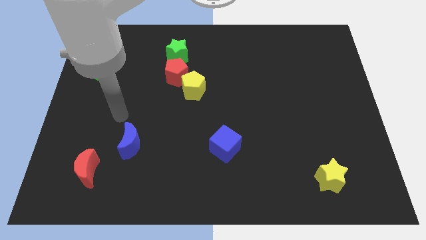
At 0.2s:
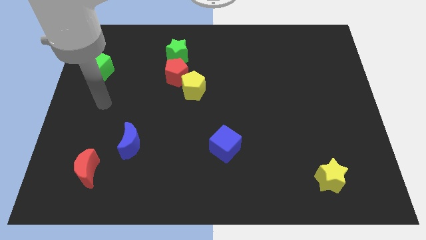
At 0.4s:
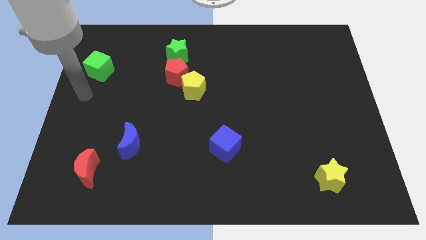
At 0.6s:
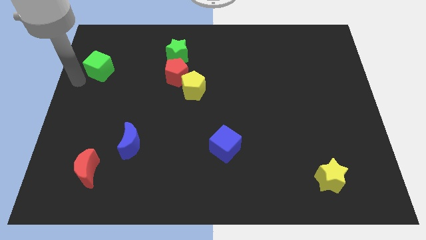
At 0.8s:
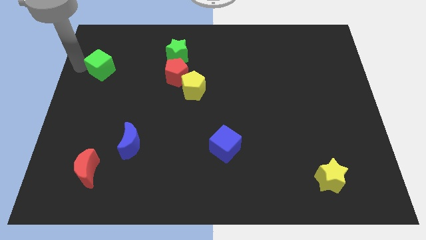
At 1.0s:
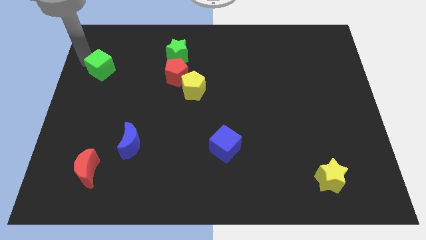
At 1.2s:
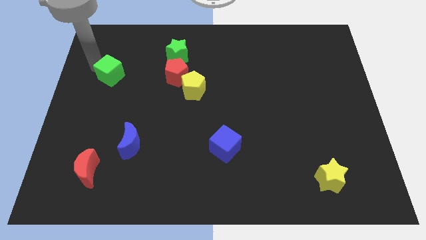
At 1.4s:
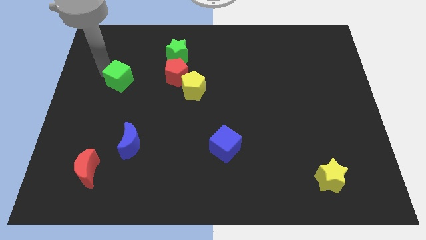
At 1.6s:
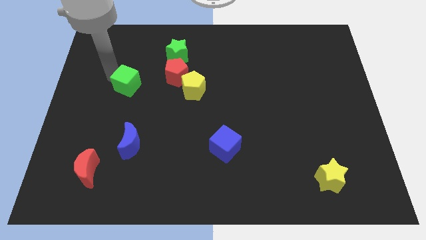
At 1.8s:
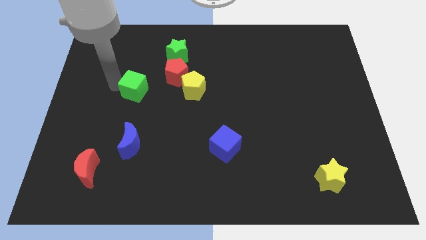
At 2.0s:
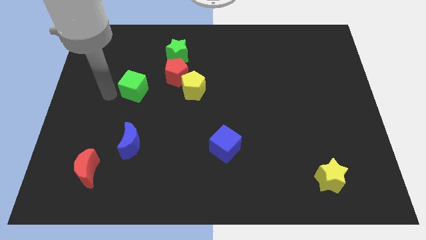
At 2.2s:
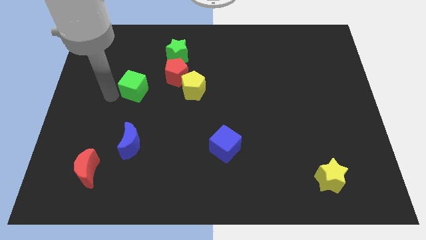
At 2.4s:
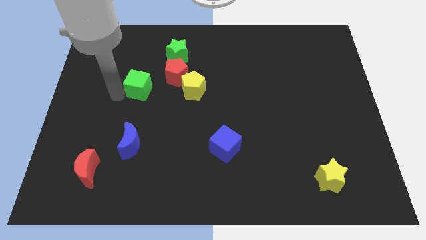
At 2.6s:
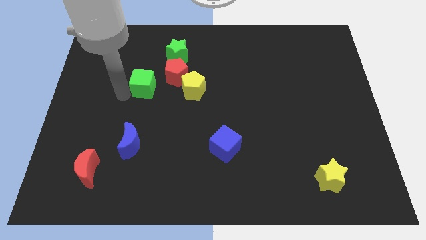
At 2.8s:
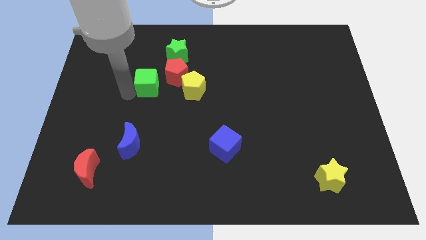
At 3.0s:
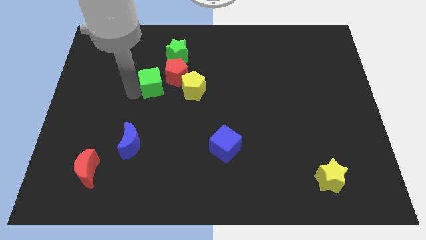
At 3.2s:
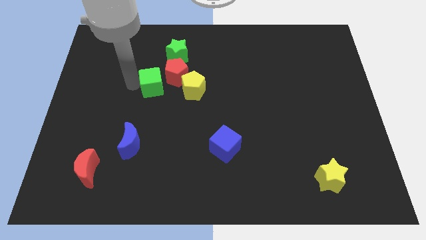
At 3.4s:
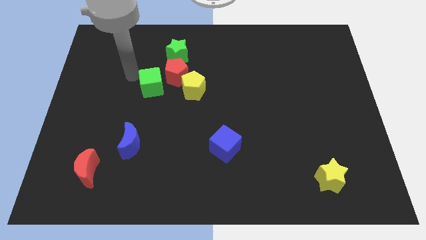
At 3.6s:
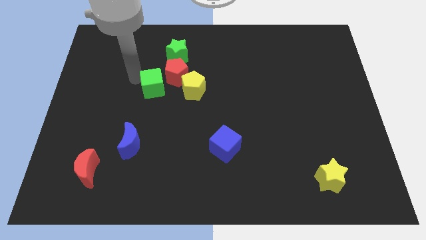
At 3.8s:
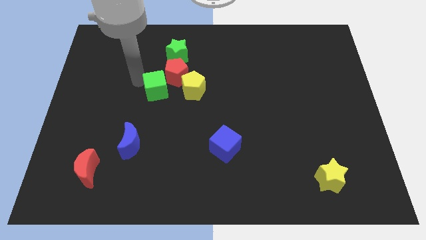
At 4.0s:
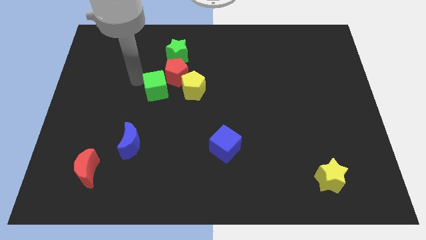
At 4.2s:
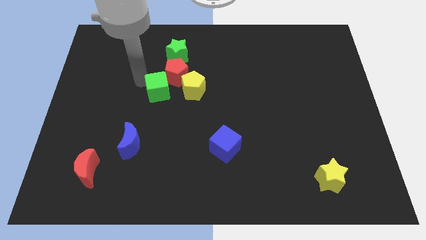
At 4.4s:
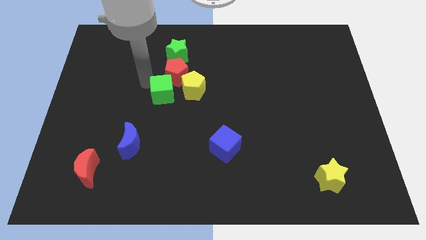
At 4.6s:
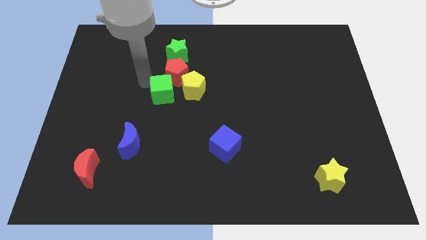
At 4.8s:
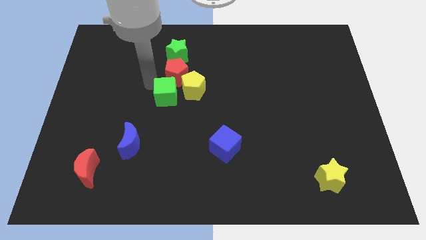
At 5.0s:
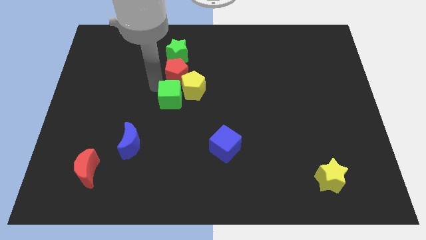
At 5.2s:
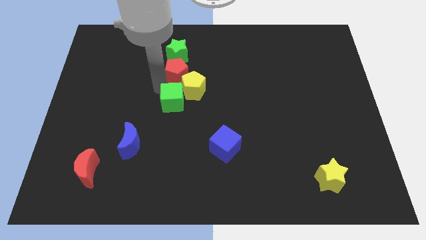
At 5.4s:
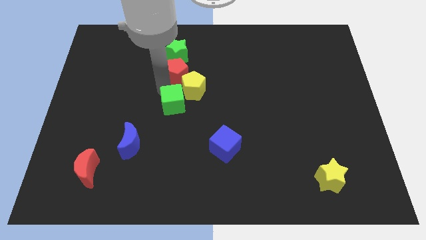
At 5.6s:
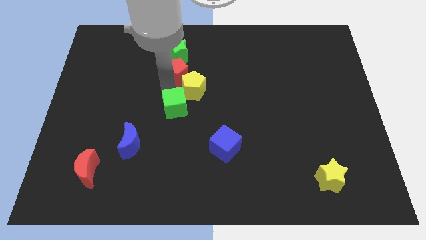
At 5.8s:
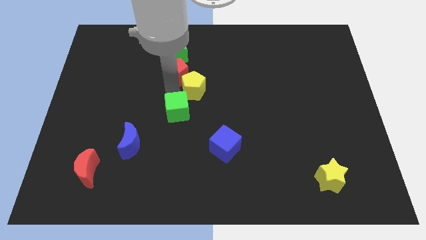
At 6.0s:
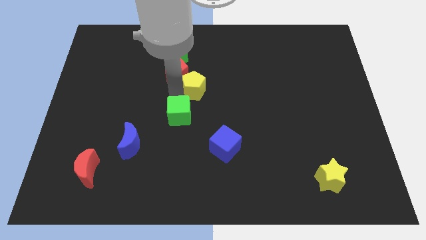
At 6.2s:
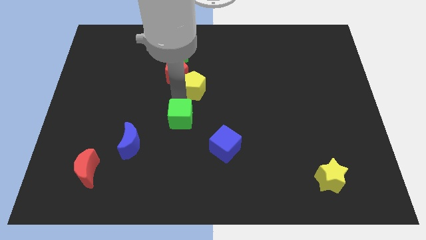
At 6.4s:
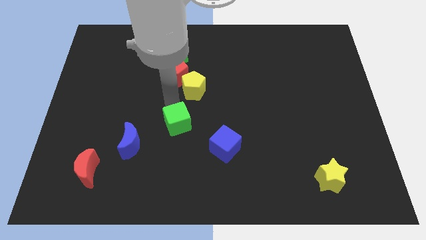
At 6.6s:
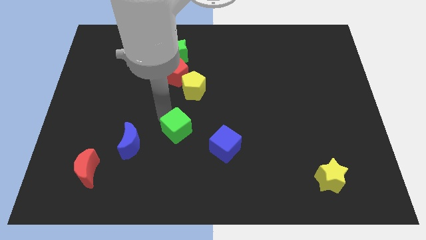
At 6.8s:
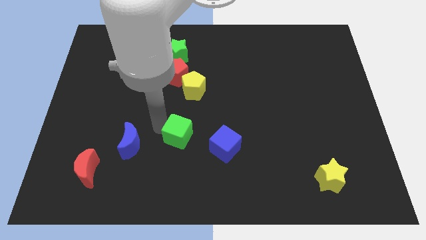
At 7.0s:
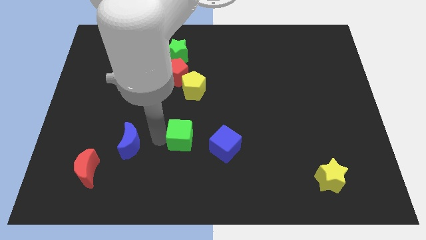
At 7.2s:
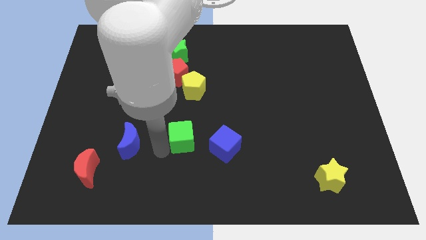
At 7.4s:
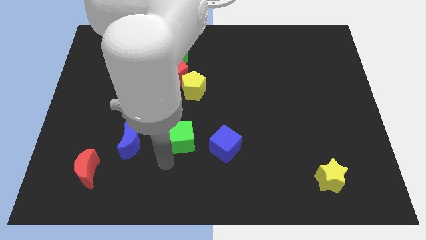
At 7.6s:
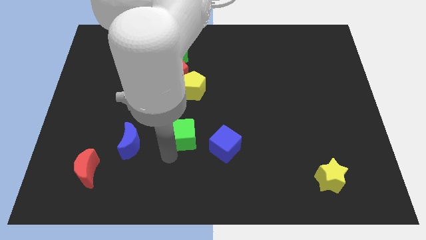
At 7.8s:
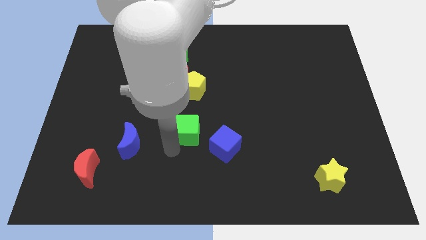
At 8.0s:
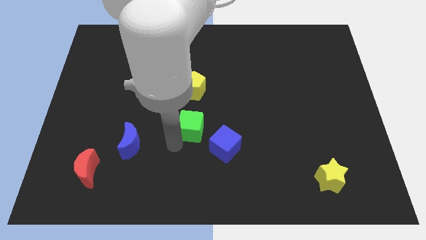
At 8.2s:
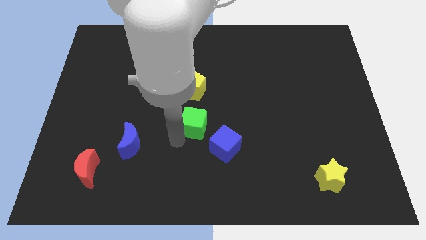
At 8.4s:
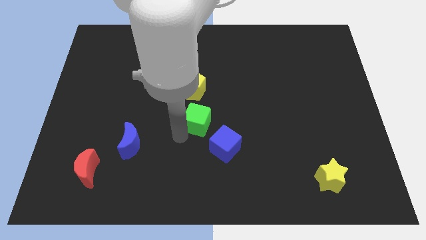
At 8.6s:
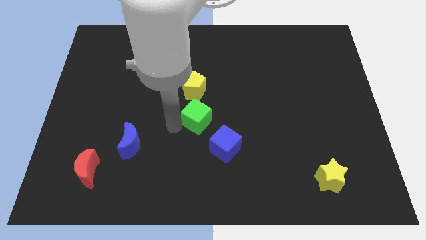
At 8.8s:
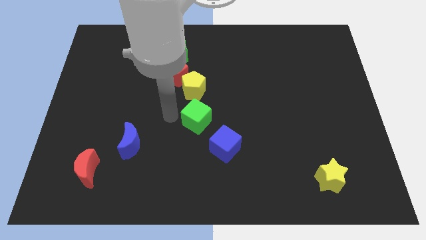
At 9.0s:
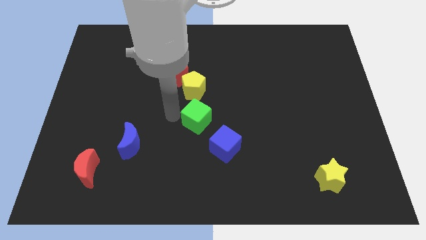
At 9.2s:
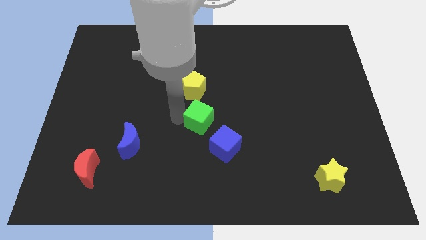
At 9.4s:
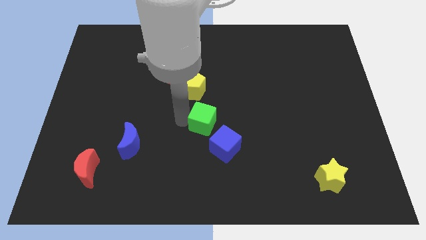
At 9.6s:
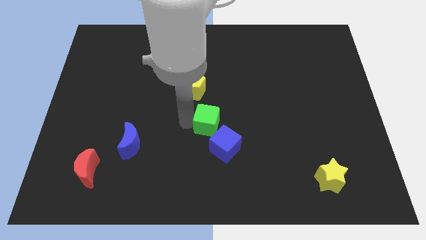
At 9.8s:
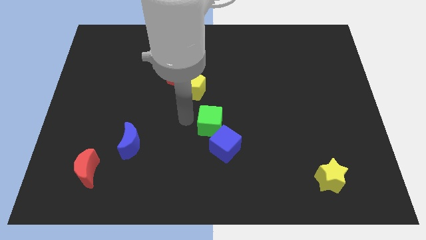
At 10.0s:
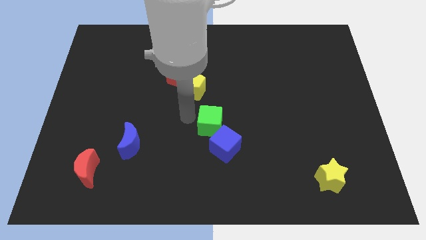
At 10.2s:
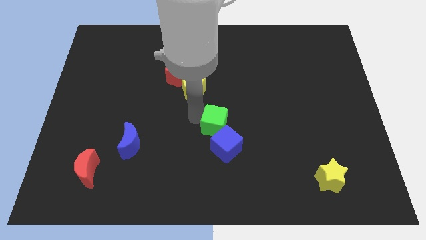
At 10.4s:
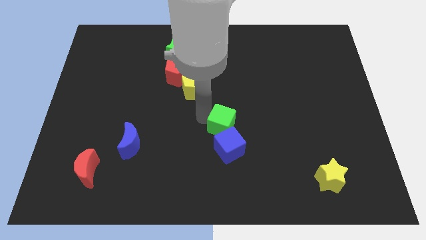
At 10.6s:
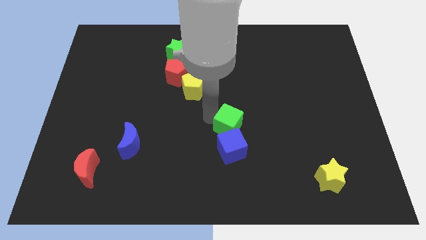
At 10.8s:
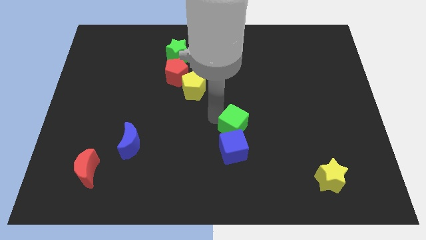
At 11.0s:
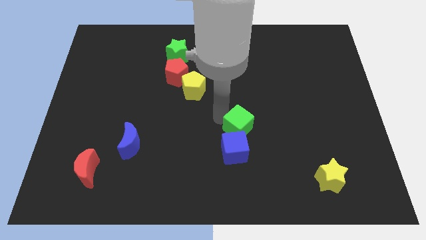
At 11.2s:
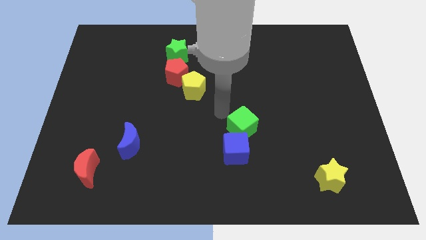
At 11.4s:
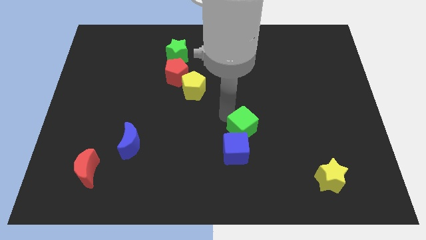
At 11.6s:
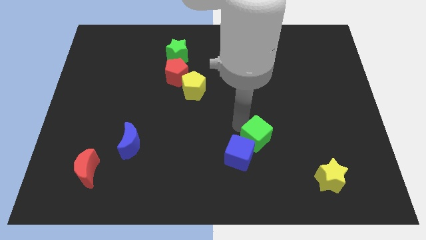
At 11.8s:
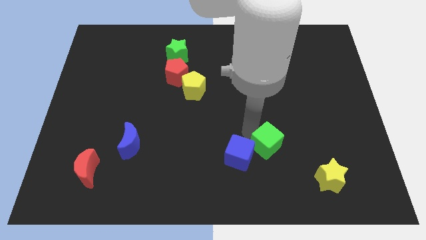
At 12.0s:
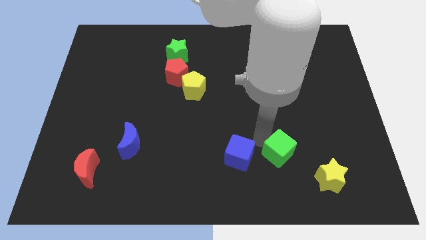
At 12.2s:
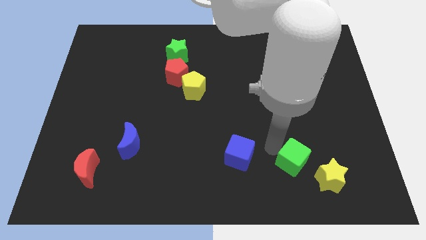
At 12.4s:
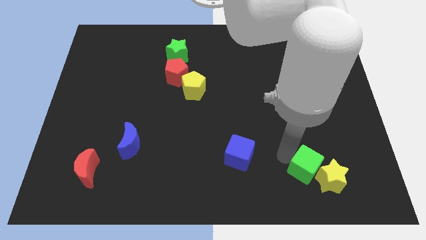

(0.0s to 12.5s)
push the green cube to the yellow star

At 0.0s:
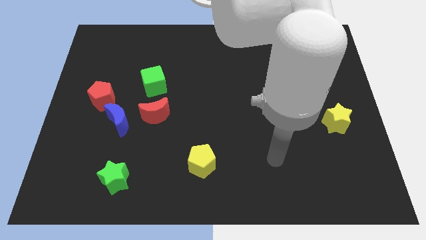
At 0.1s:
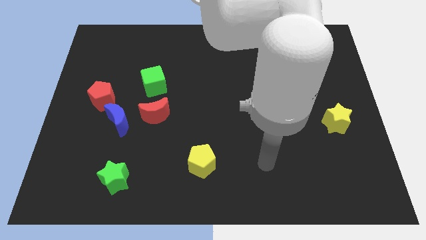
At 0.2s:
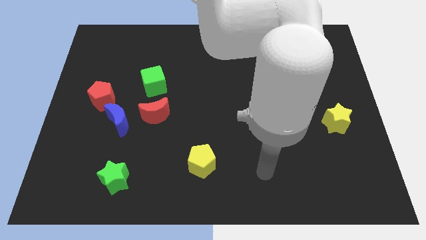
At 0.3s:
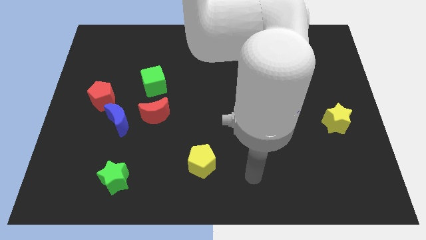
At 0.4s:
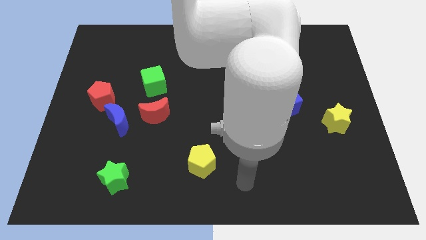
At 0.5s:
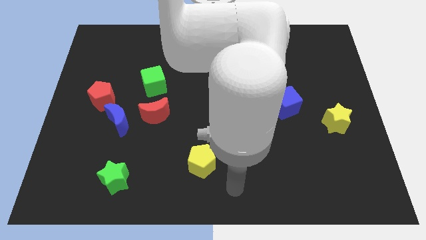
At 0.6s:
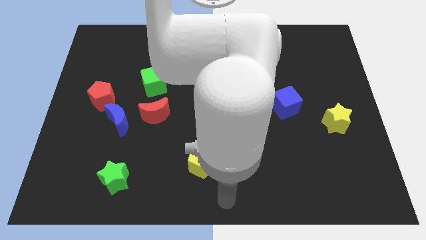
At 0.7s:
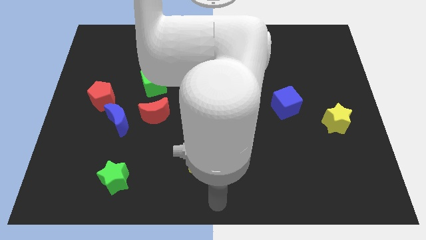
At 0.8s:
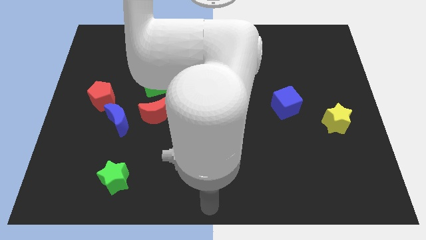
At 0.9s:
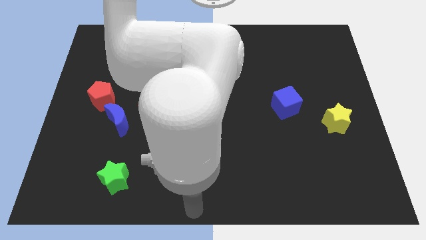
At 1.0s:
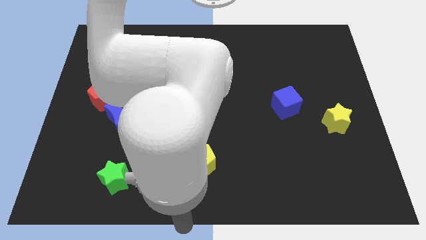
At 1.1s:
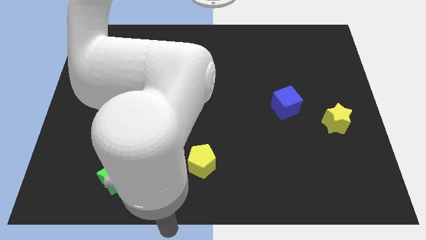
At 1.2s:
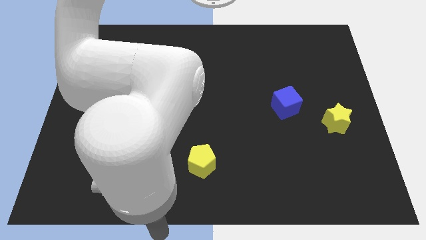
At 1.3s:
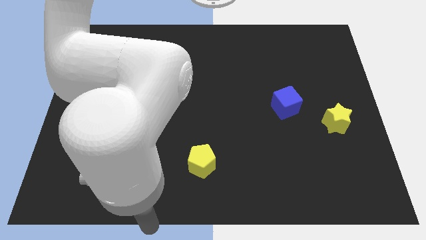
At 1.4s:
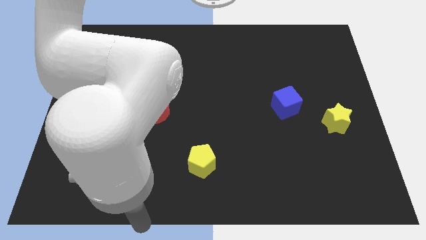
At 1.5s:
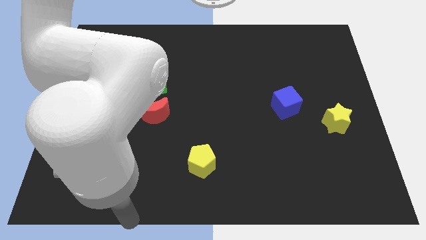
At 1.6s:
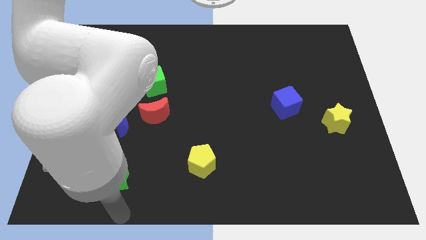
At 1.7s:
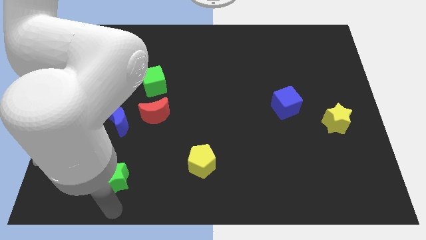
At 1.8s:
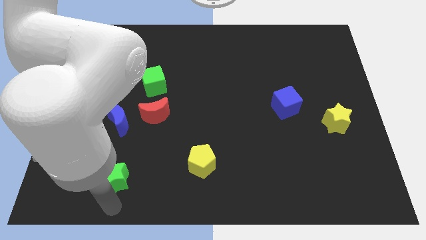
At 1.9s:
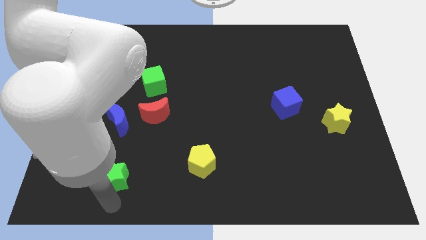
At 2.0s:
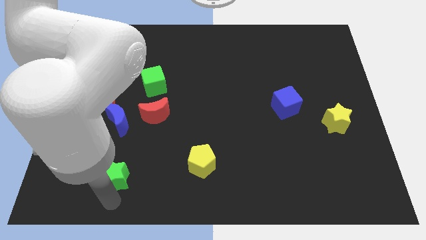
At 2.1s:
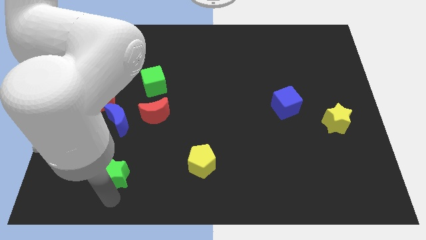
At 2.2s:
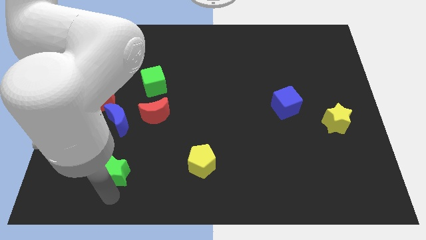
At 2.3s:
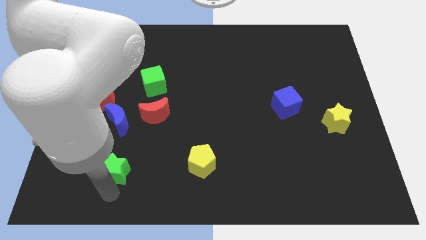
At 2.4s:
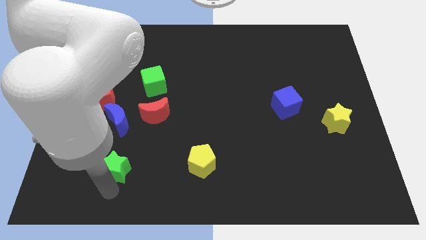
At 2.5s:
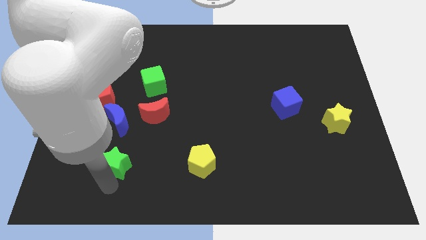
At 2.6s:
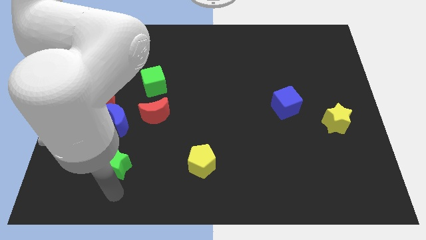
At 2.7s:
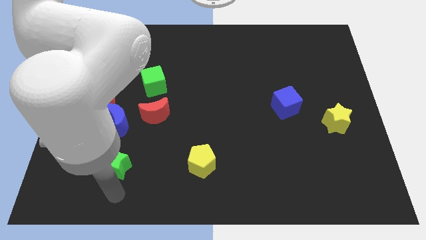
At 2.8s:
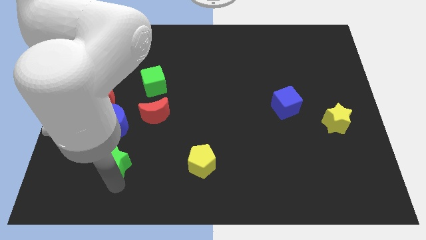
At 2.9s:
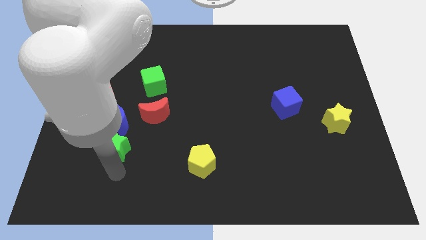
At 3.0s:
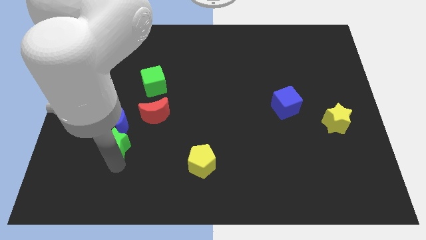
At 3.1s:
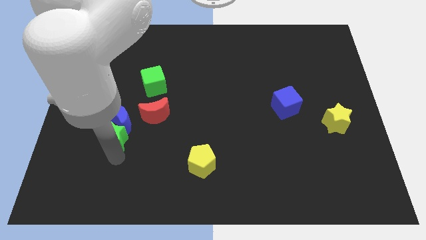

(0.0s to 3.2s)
push the green star to the blue moon
